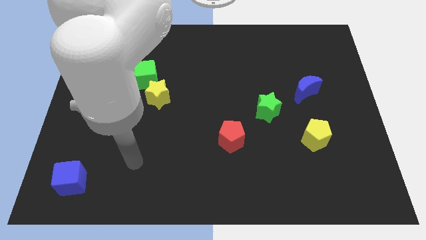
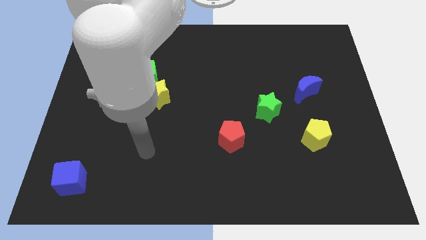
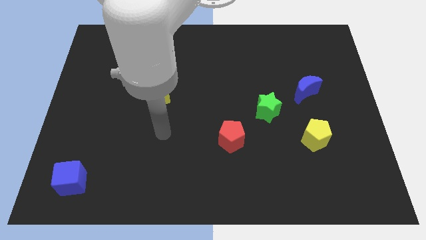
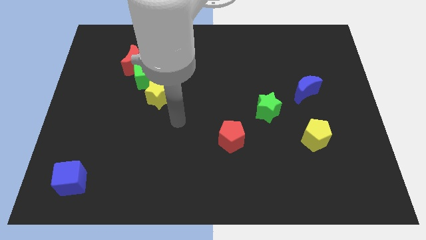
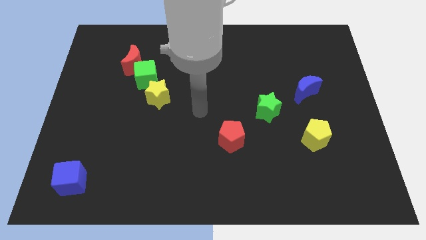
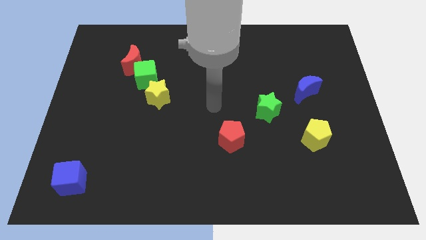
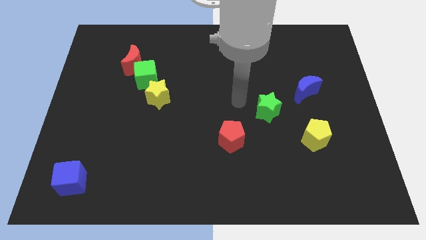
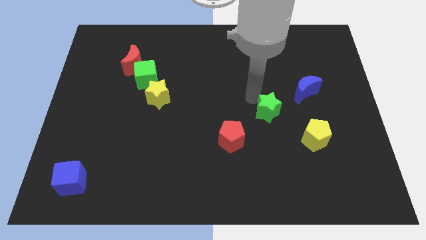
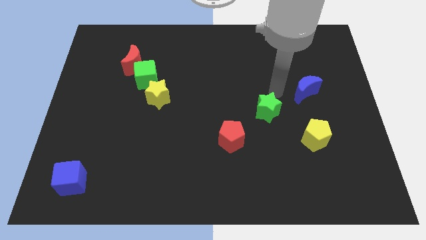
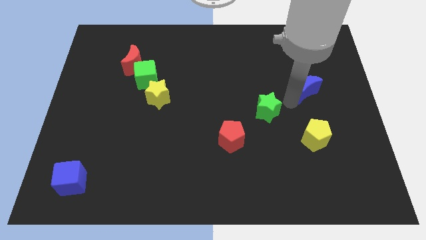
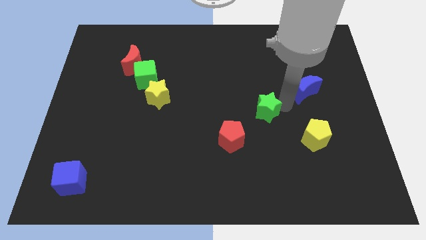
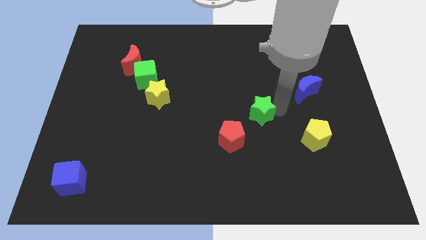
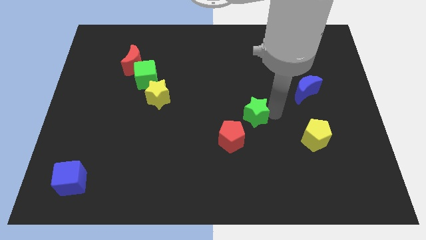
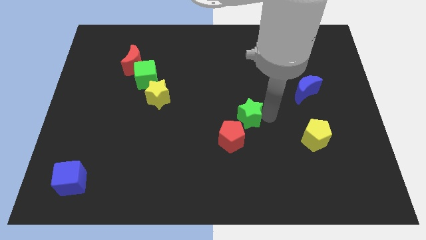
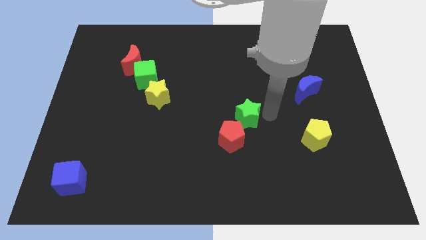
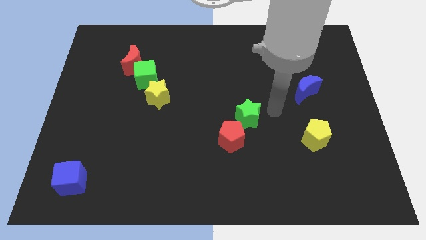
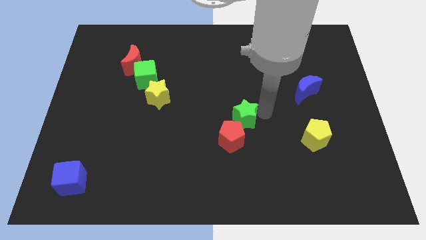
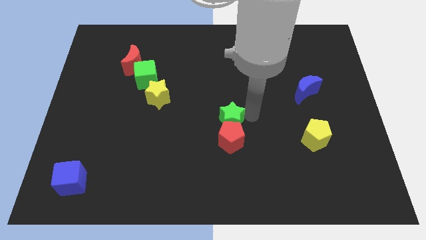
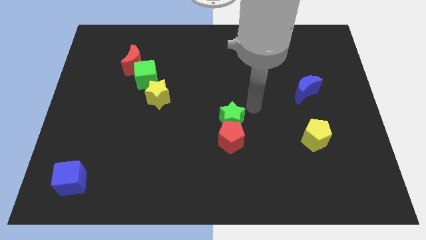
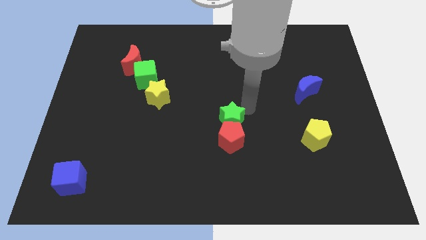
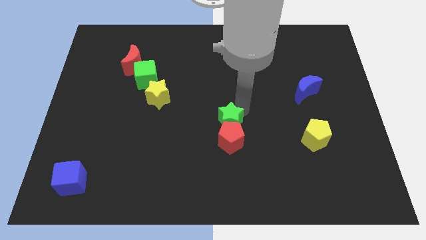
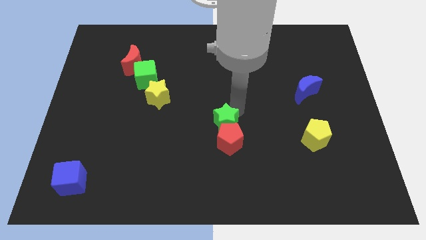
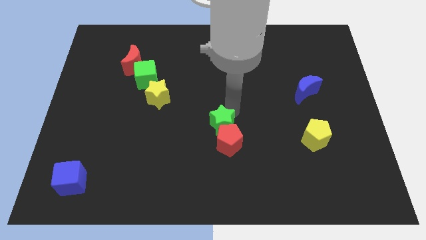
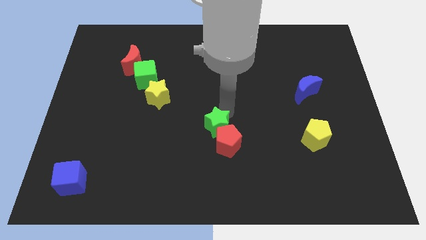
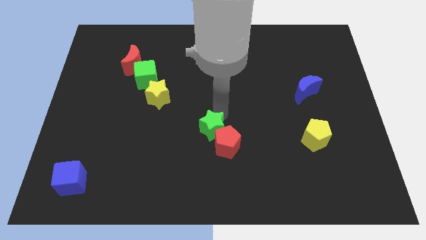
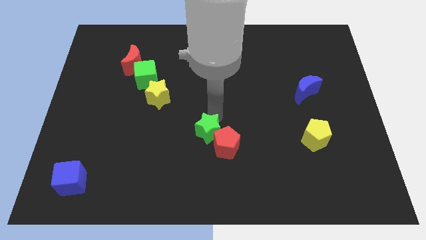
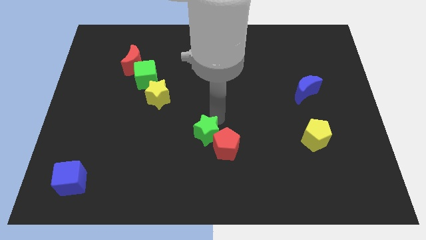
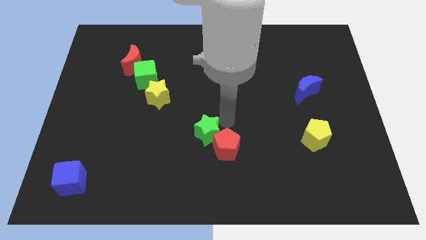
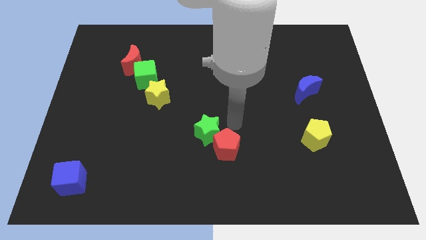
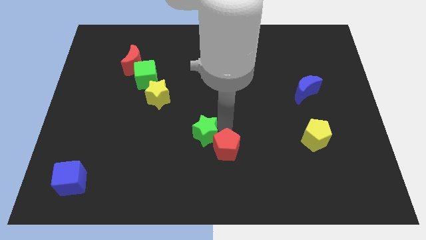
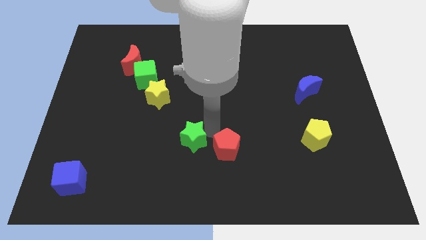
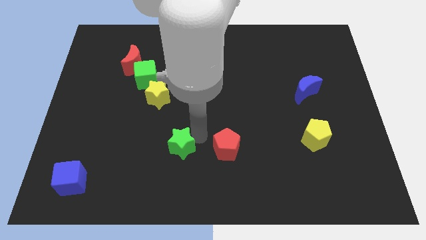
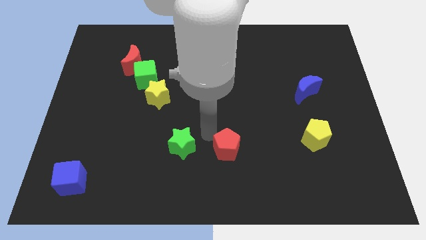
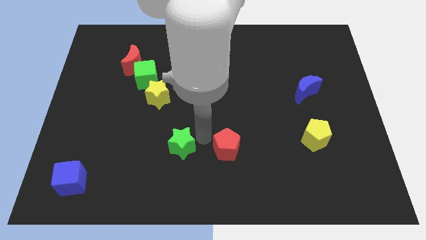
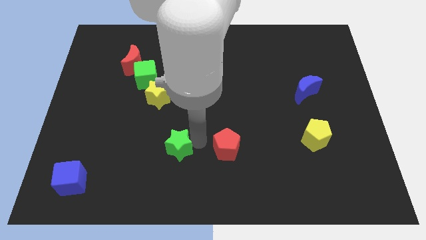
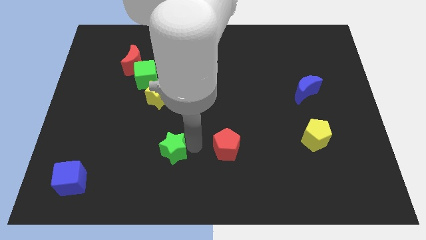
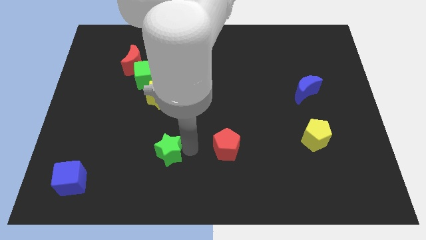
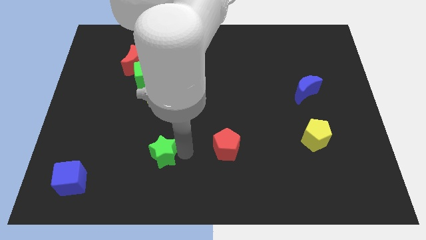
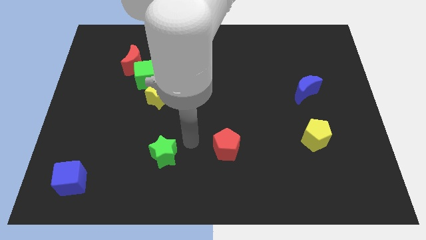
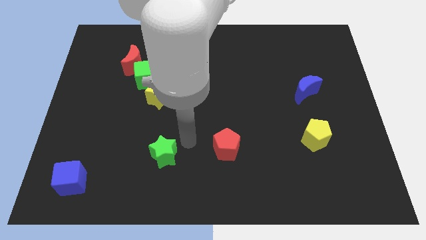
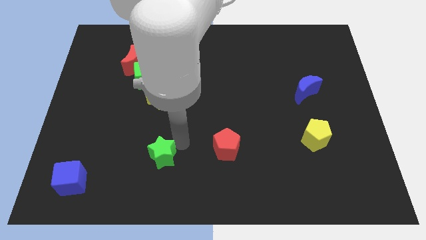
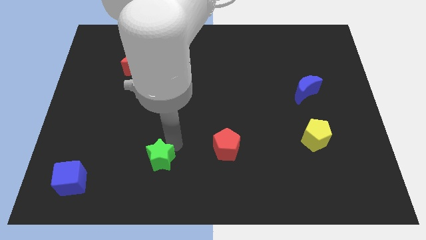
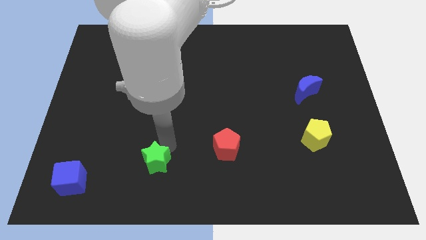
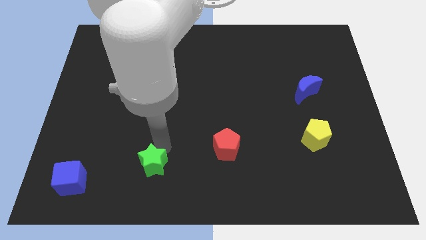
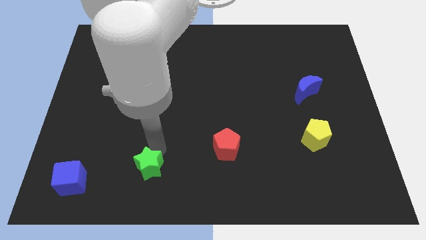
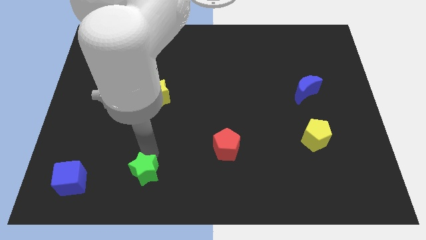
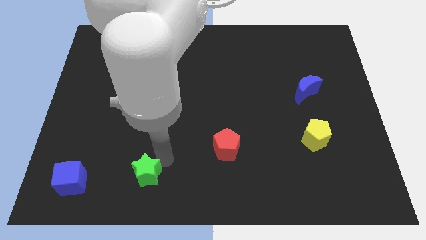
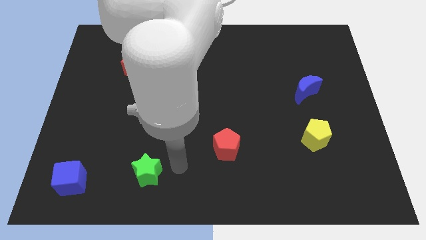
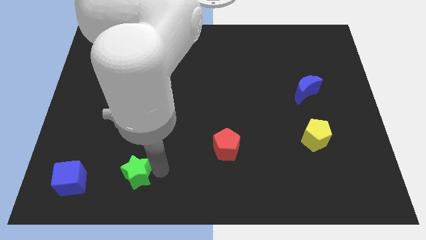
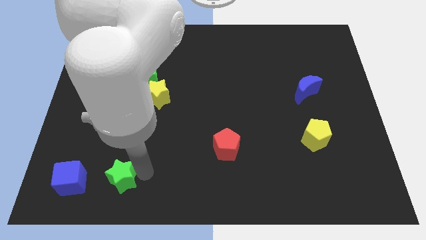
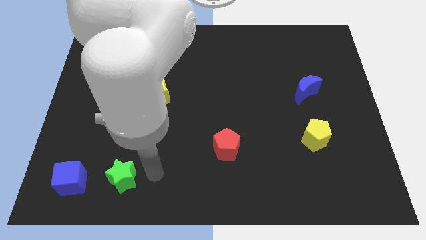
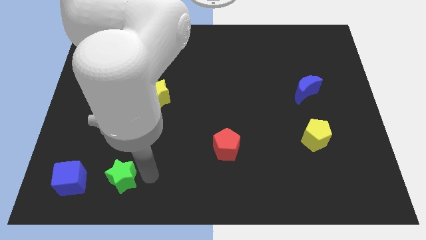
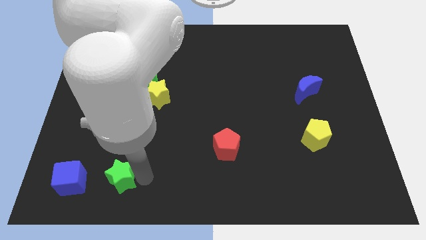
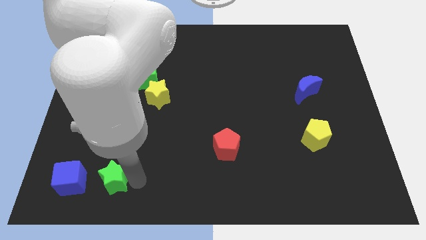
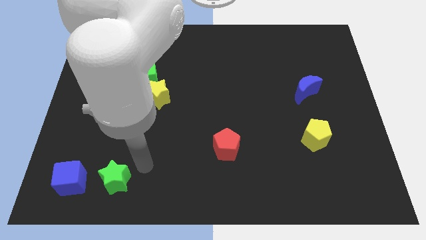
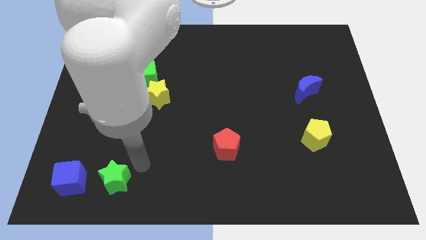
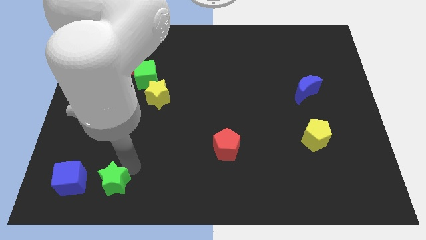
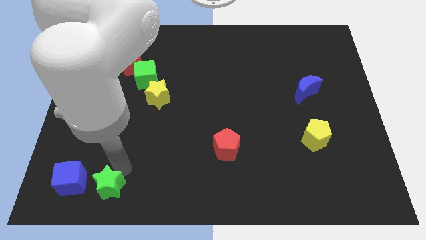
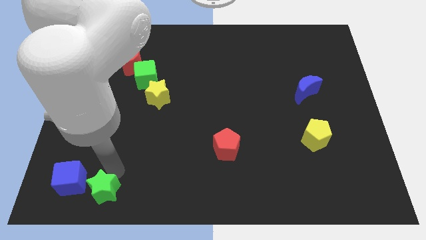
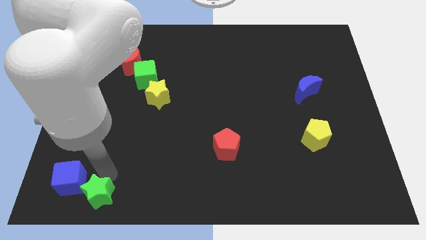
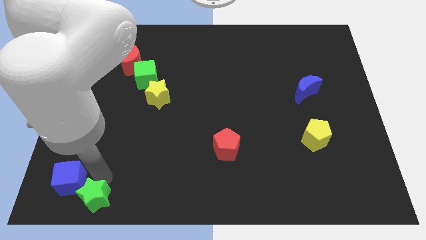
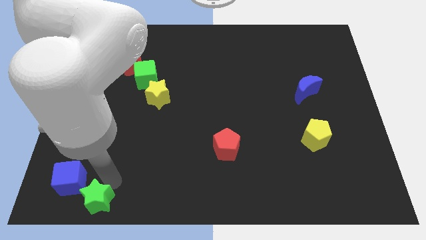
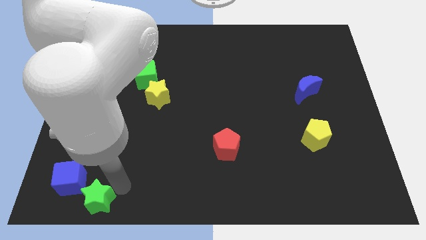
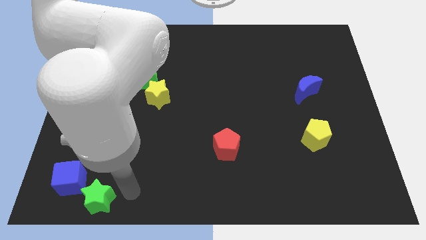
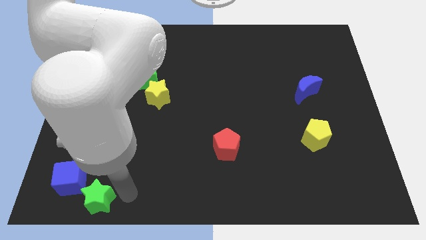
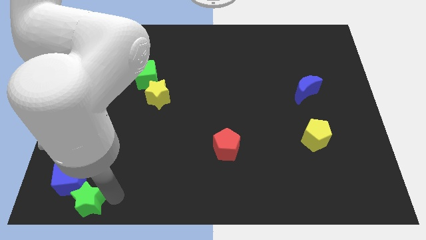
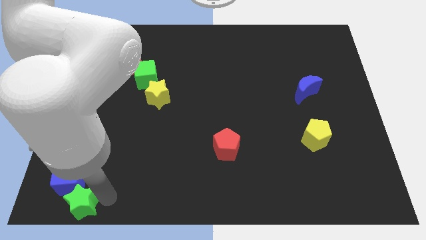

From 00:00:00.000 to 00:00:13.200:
move the green star to the bottom left

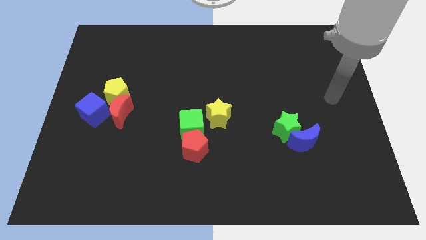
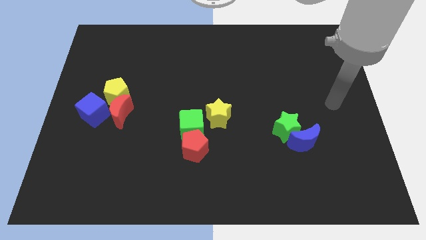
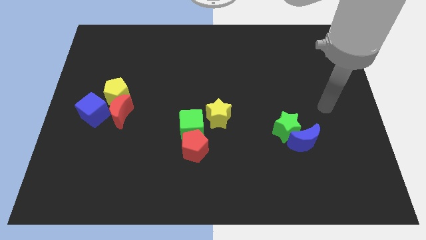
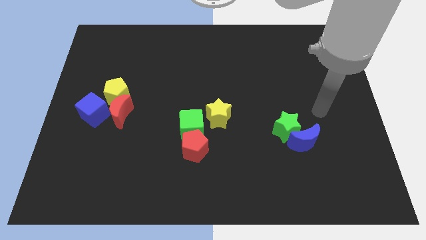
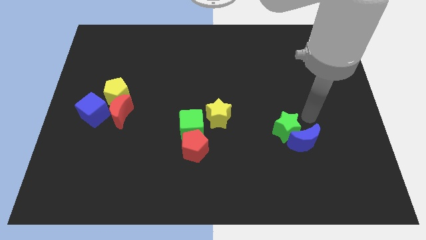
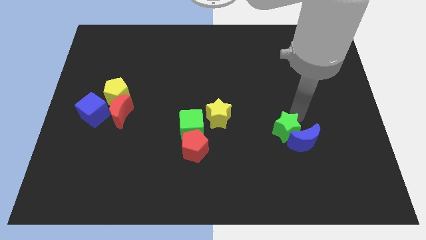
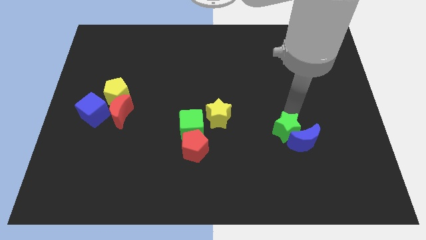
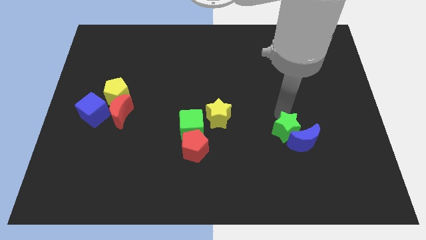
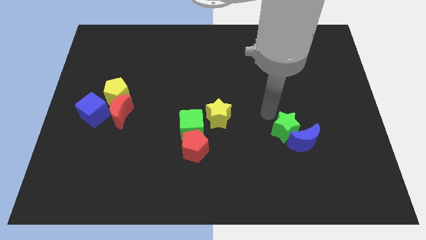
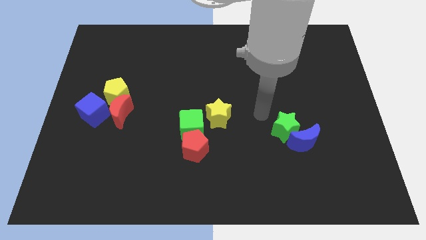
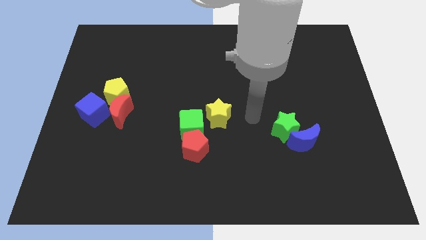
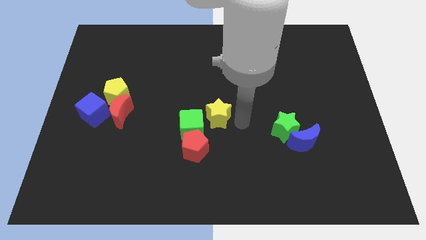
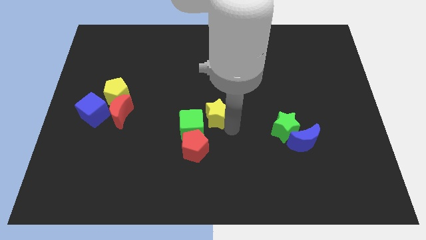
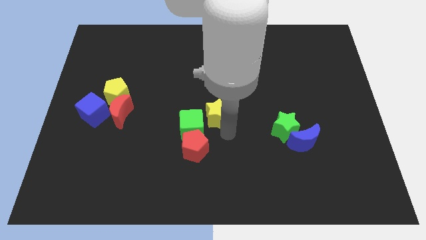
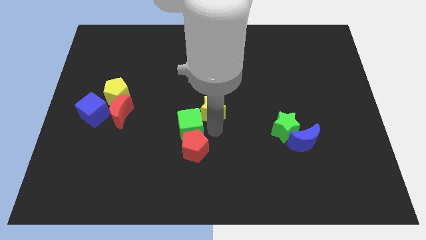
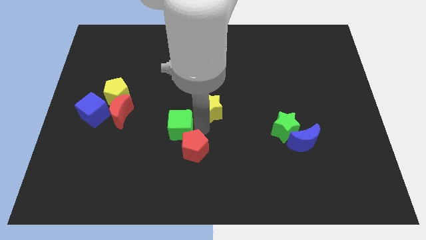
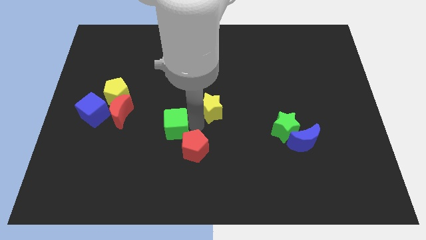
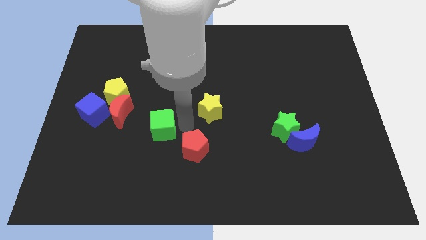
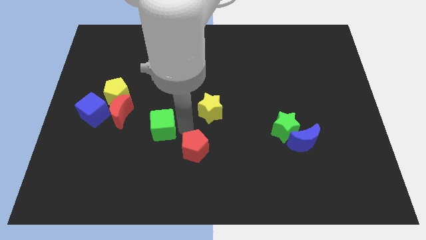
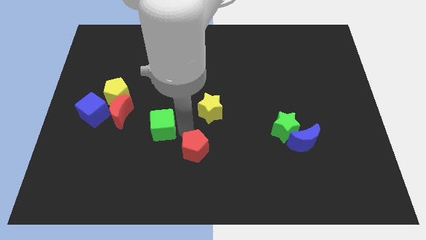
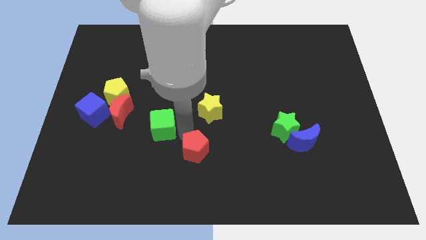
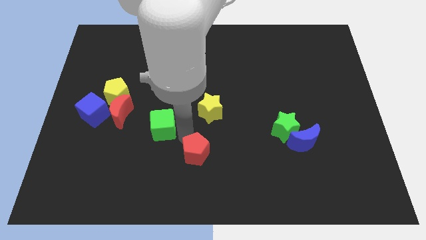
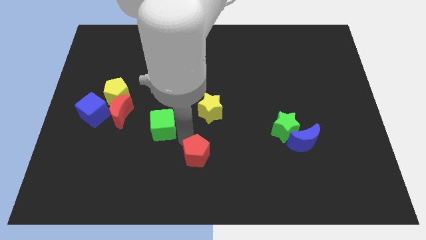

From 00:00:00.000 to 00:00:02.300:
slide the red pentagon to the bottom side
